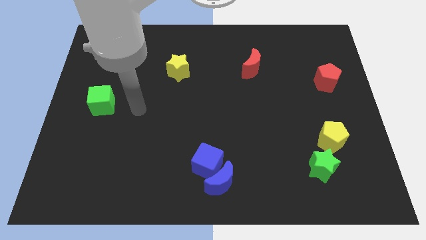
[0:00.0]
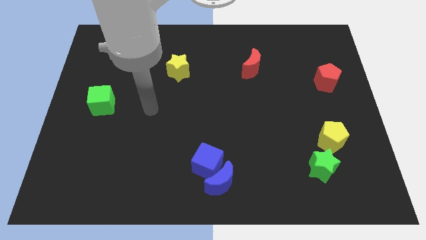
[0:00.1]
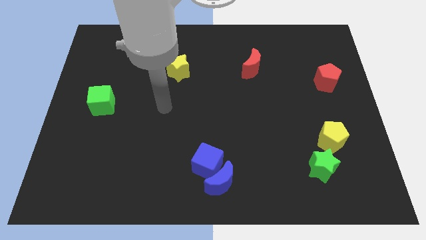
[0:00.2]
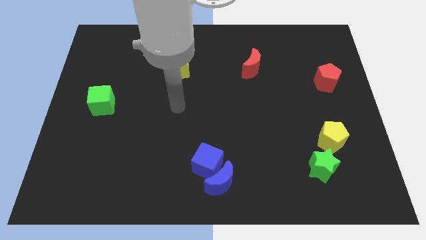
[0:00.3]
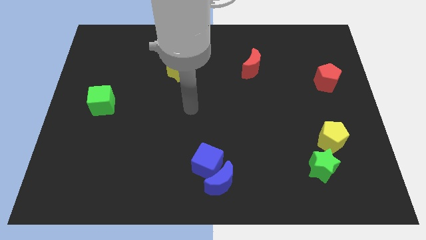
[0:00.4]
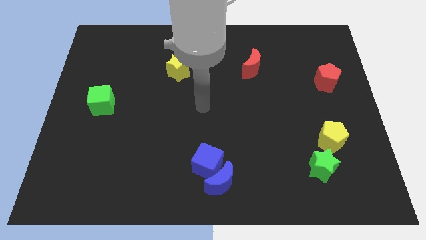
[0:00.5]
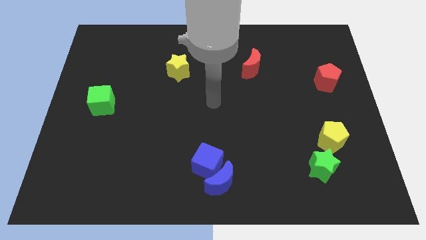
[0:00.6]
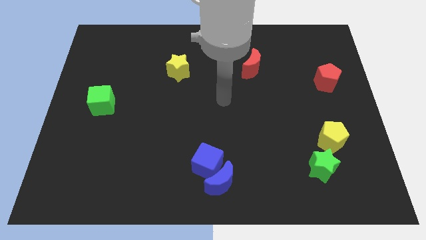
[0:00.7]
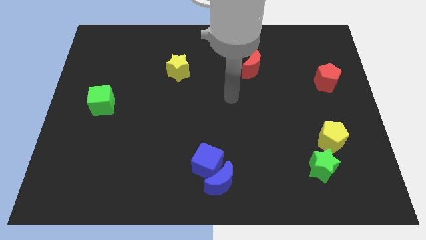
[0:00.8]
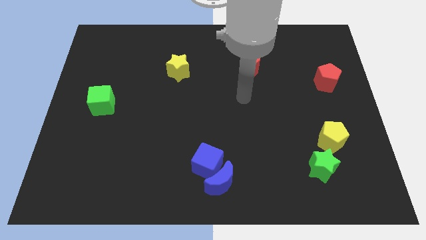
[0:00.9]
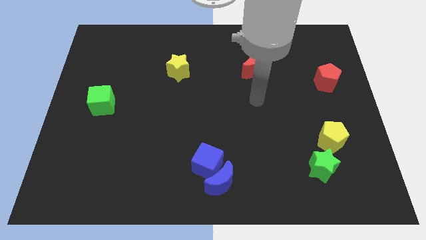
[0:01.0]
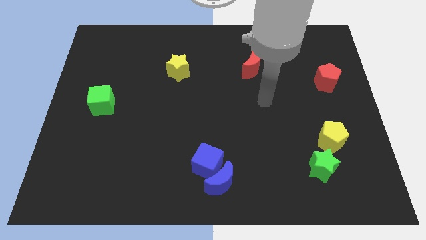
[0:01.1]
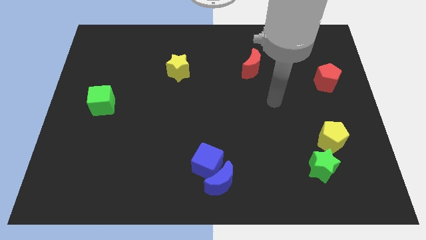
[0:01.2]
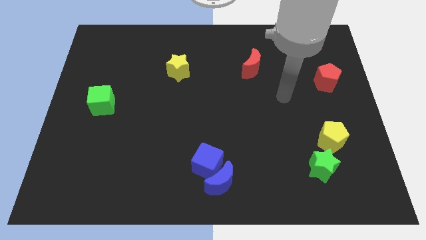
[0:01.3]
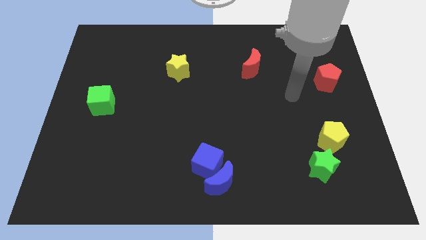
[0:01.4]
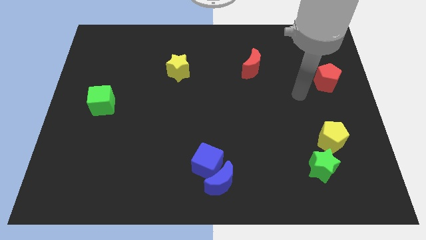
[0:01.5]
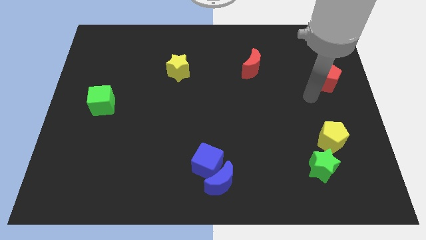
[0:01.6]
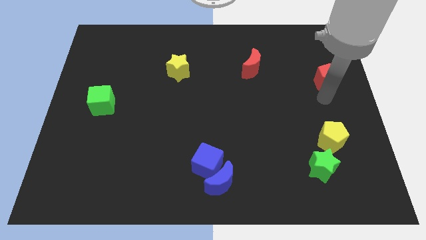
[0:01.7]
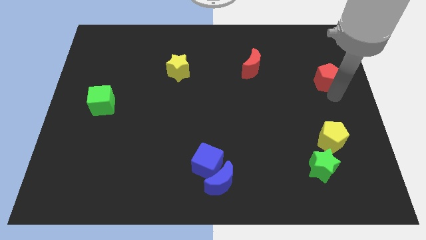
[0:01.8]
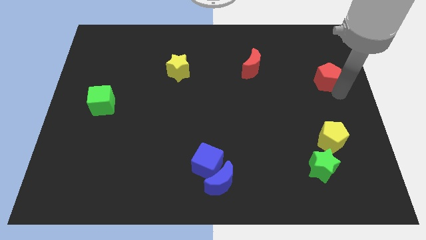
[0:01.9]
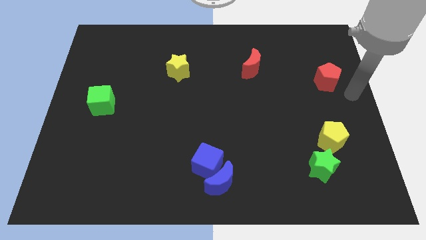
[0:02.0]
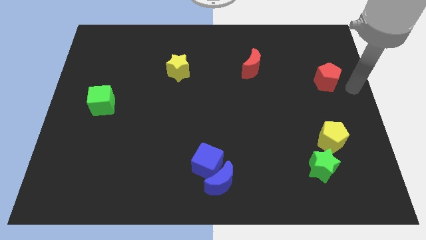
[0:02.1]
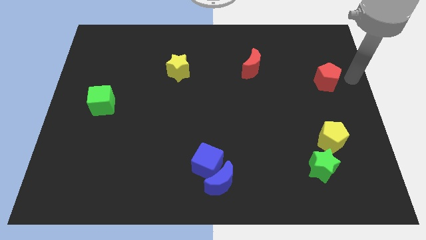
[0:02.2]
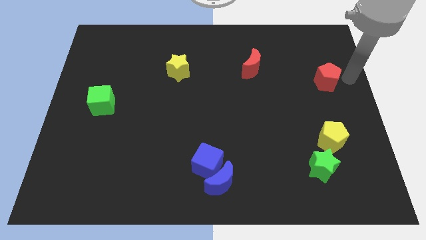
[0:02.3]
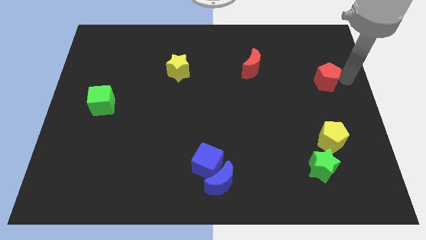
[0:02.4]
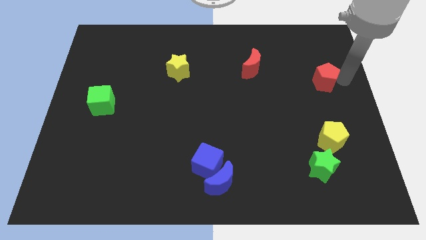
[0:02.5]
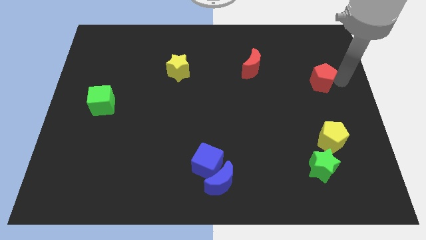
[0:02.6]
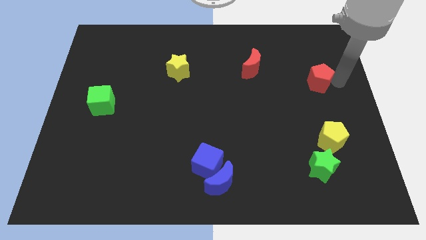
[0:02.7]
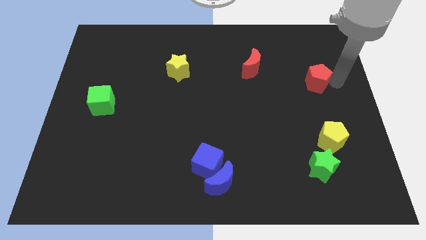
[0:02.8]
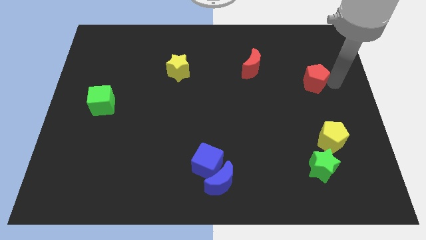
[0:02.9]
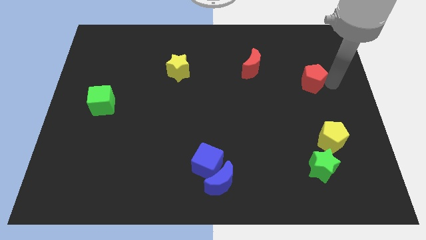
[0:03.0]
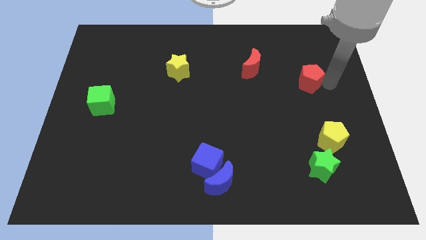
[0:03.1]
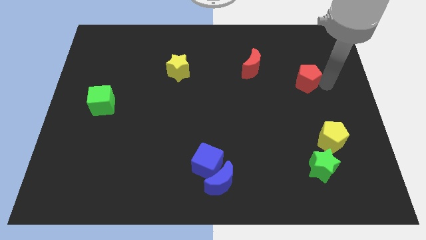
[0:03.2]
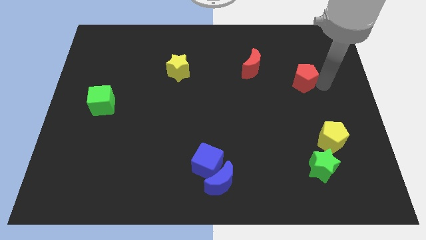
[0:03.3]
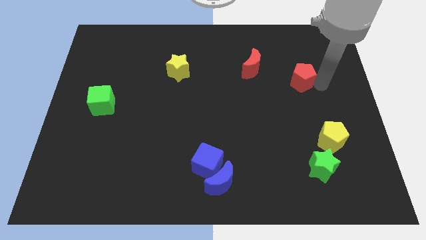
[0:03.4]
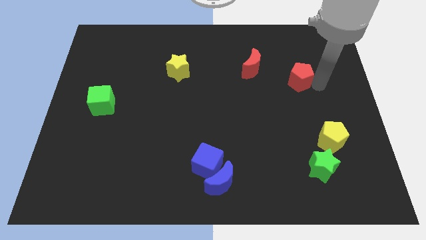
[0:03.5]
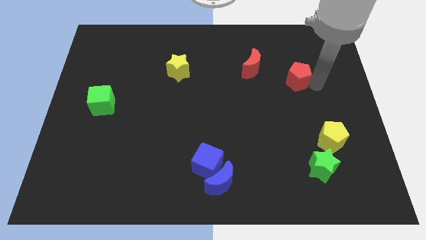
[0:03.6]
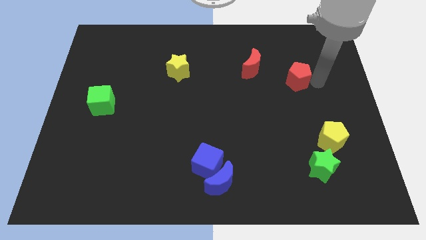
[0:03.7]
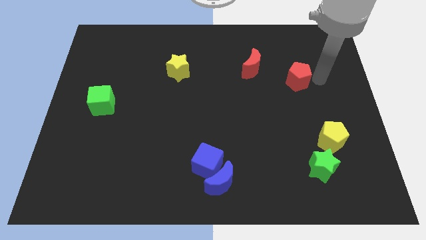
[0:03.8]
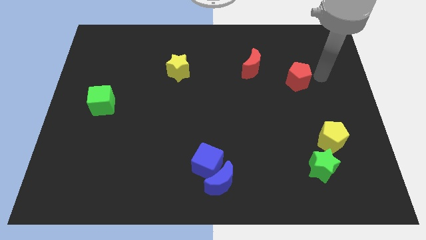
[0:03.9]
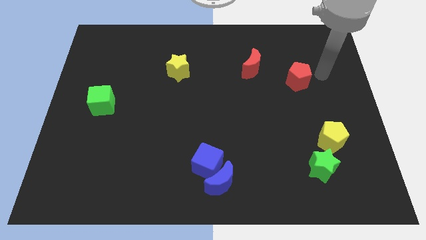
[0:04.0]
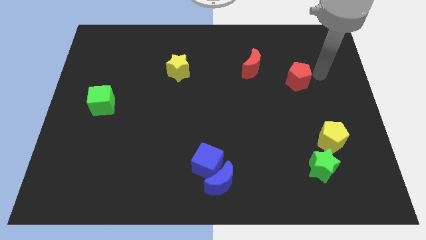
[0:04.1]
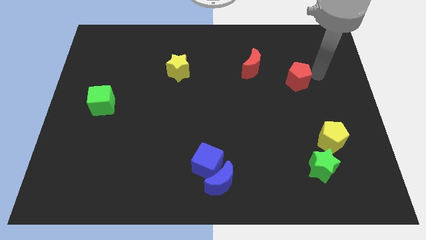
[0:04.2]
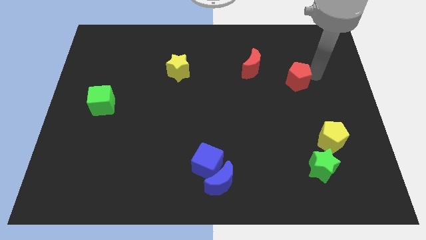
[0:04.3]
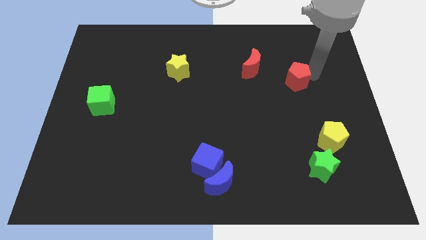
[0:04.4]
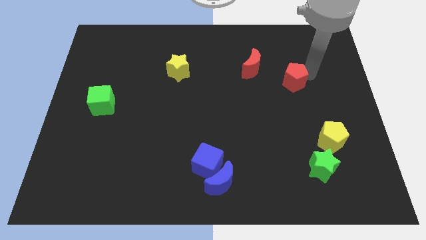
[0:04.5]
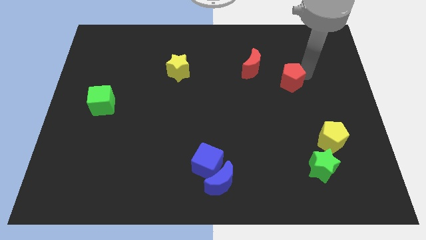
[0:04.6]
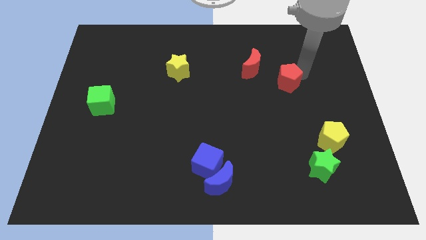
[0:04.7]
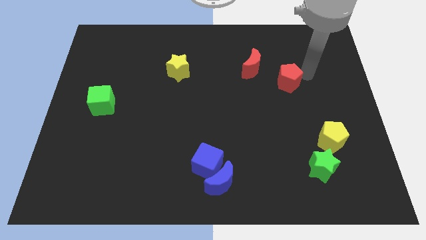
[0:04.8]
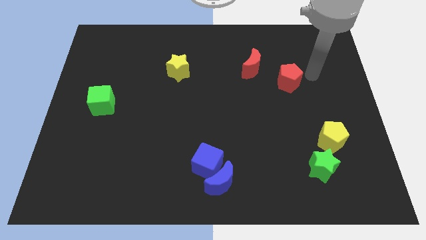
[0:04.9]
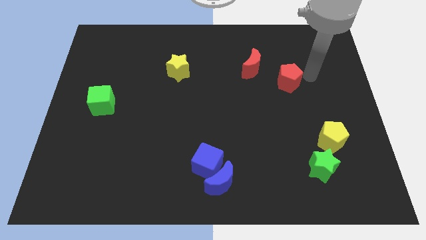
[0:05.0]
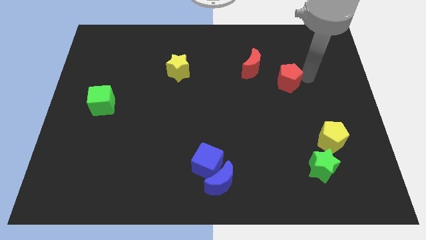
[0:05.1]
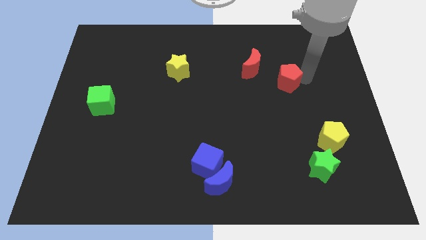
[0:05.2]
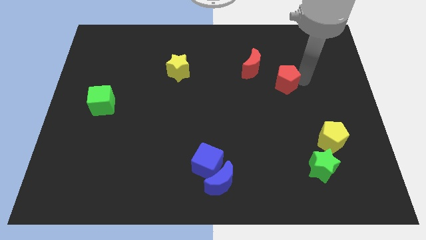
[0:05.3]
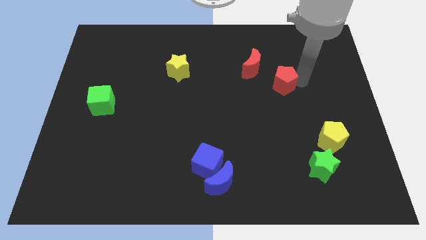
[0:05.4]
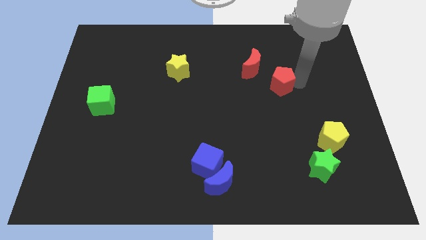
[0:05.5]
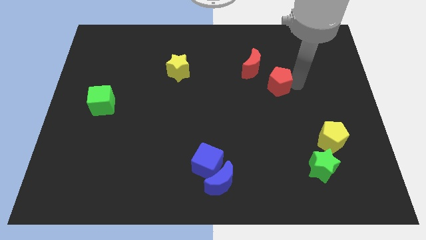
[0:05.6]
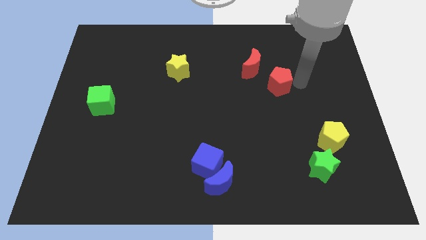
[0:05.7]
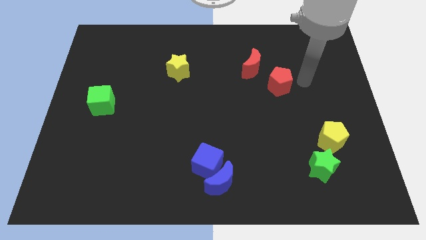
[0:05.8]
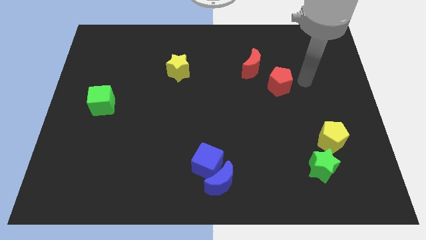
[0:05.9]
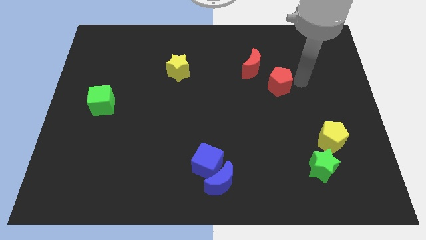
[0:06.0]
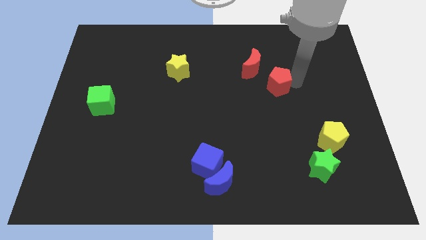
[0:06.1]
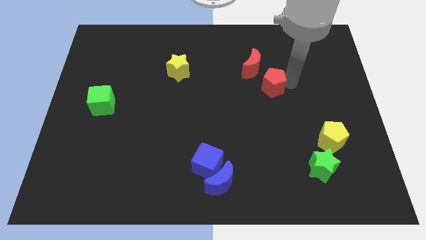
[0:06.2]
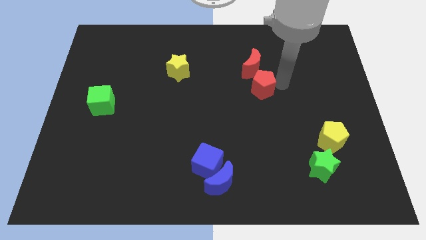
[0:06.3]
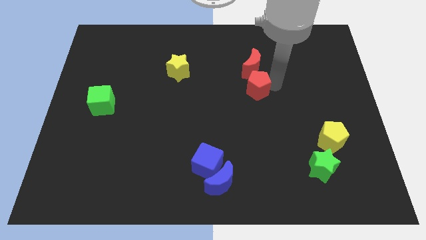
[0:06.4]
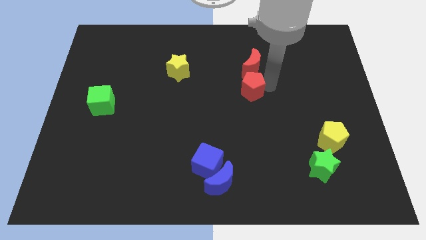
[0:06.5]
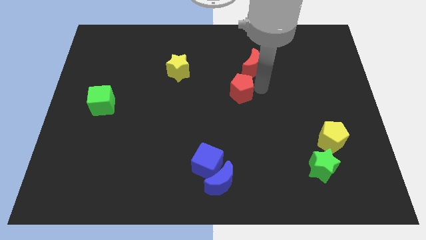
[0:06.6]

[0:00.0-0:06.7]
slide the red pentagon left

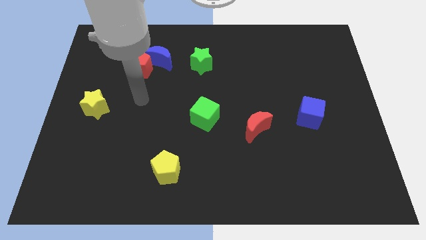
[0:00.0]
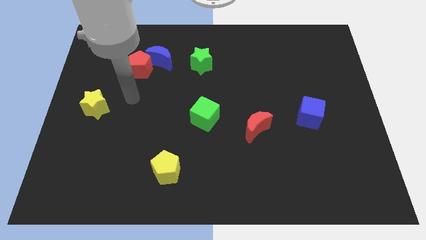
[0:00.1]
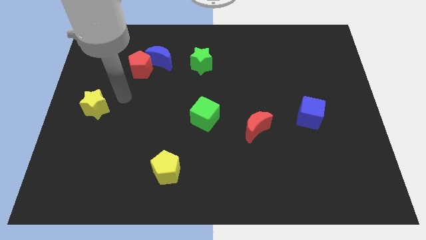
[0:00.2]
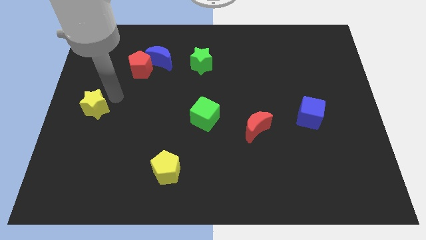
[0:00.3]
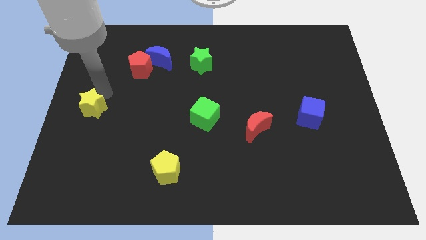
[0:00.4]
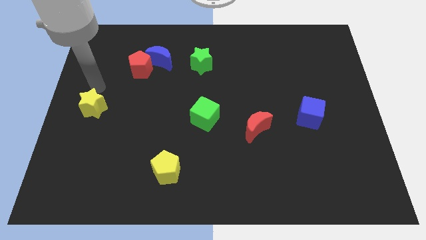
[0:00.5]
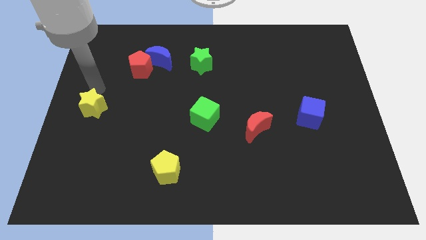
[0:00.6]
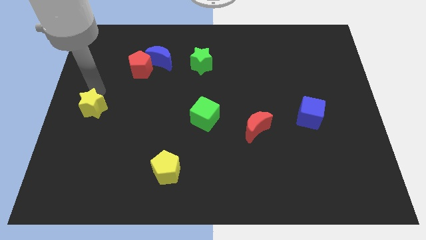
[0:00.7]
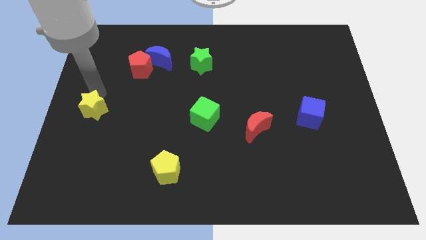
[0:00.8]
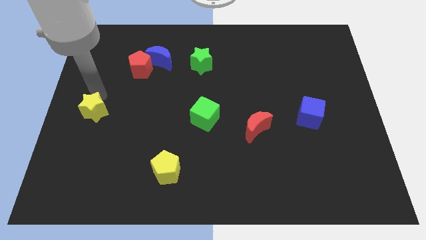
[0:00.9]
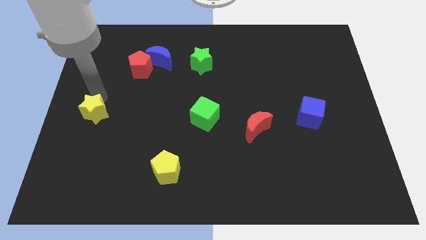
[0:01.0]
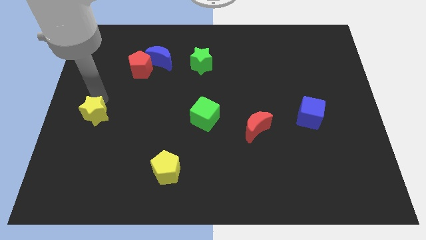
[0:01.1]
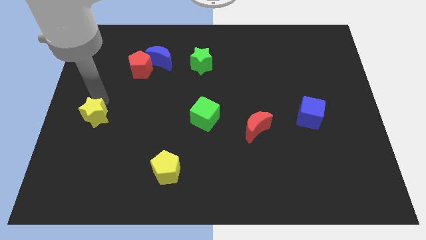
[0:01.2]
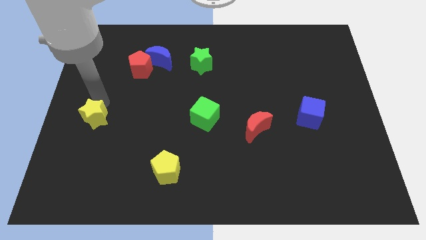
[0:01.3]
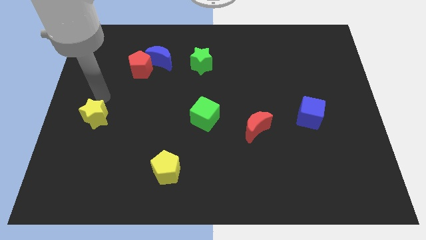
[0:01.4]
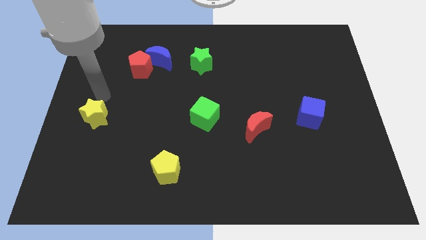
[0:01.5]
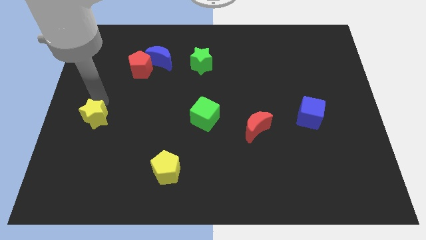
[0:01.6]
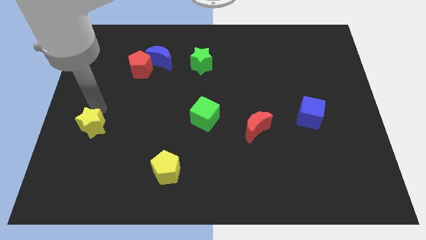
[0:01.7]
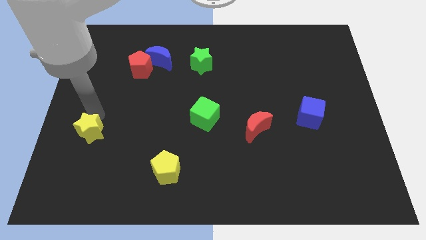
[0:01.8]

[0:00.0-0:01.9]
push the yellow star slightly down

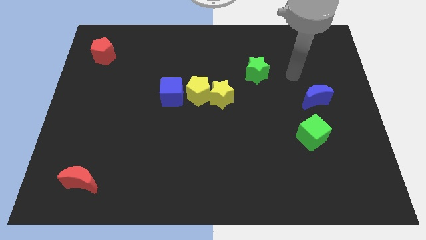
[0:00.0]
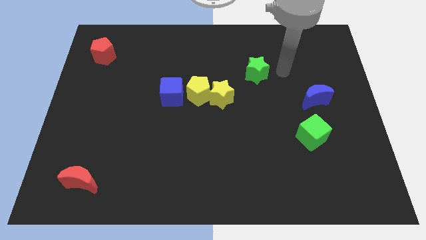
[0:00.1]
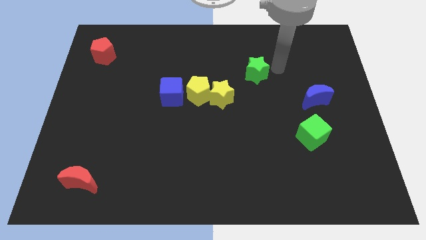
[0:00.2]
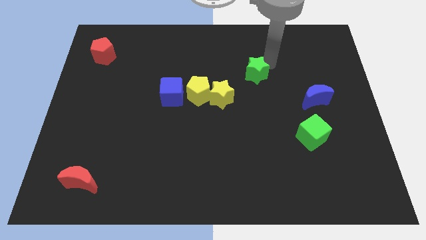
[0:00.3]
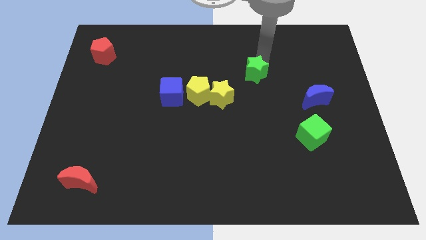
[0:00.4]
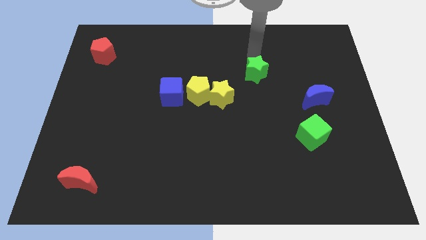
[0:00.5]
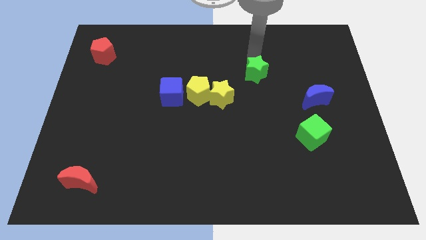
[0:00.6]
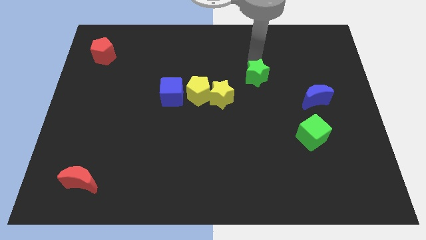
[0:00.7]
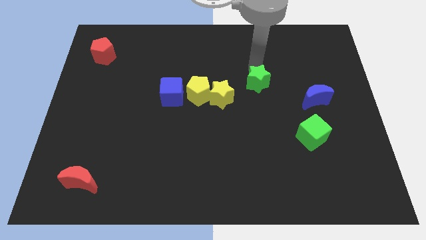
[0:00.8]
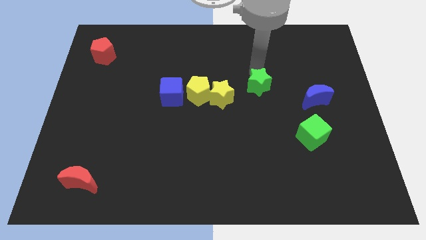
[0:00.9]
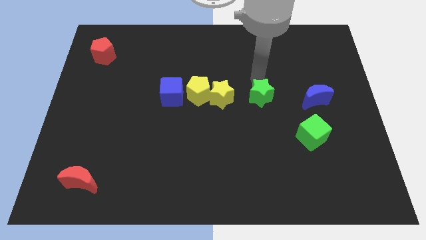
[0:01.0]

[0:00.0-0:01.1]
slide the green star a little bit down
